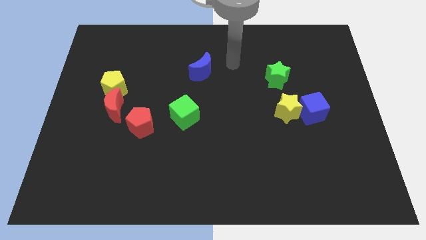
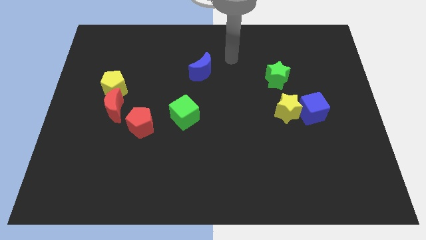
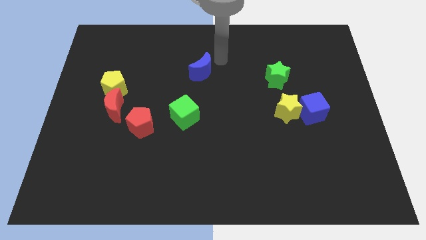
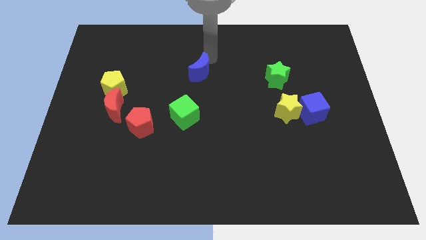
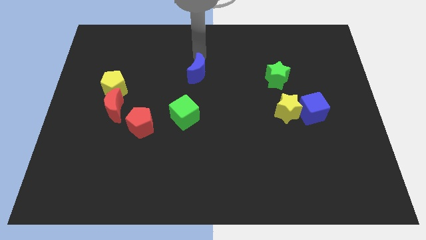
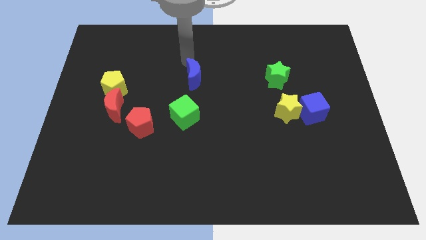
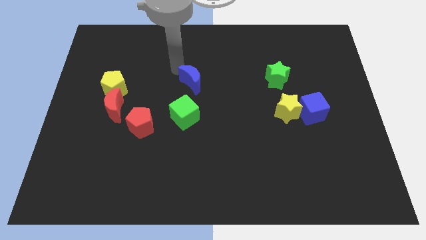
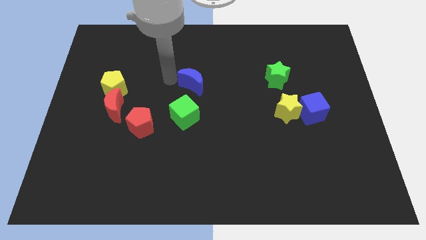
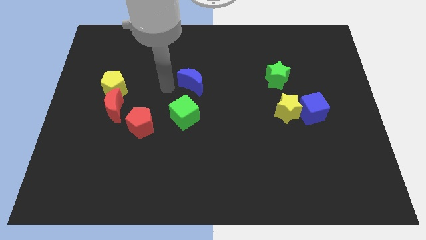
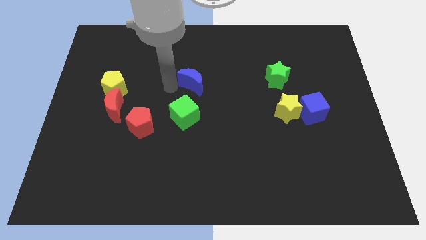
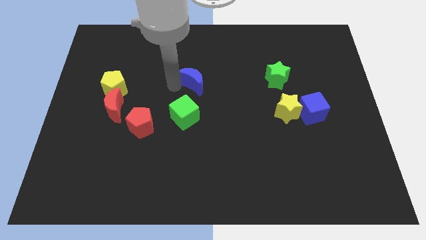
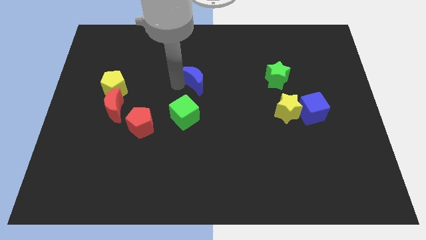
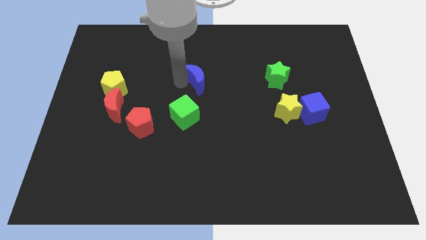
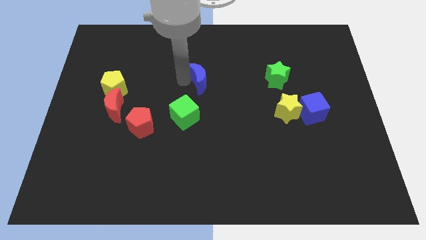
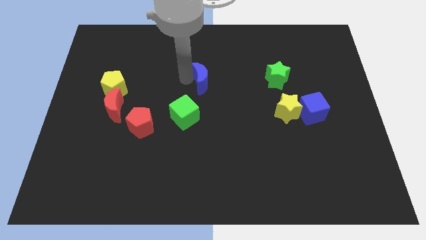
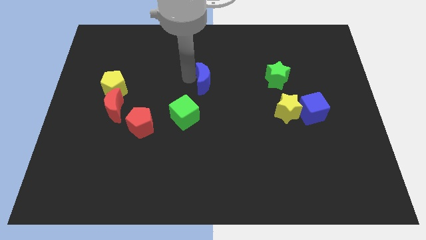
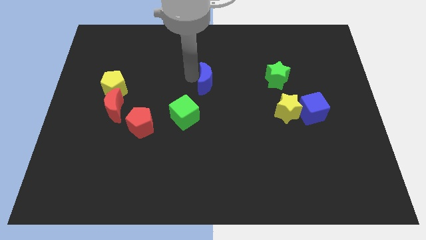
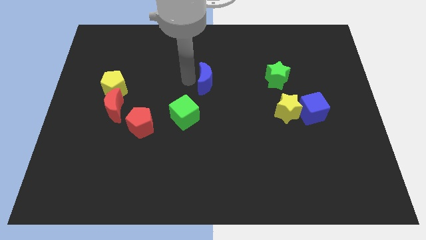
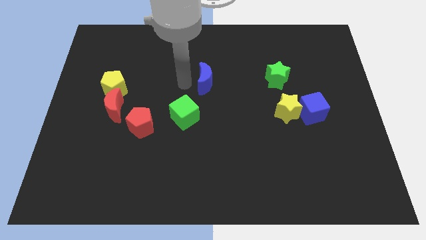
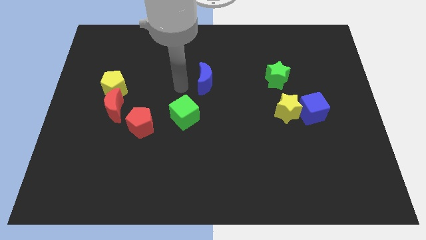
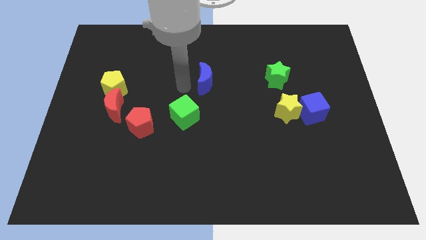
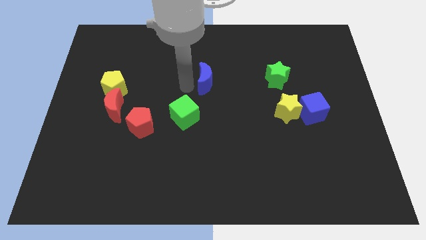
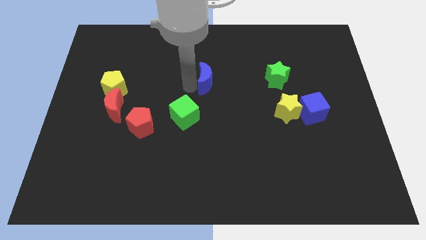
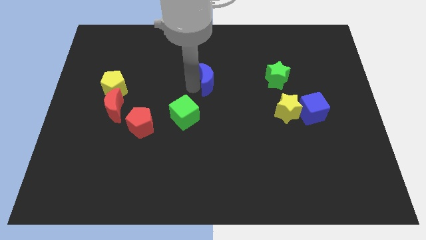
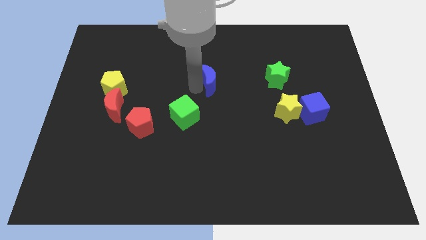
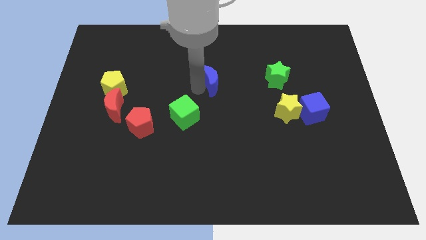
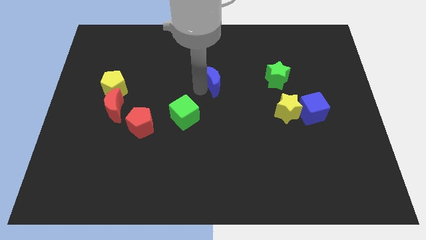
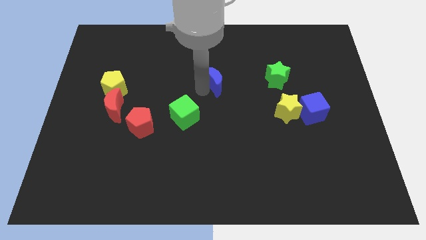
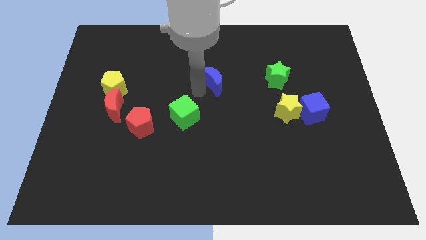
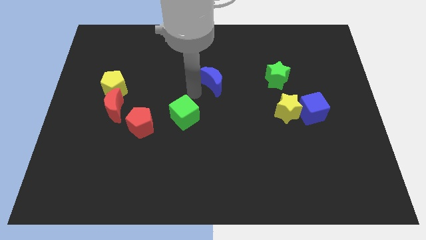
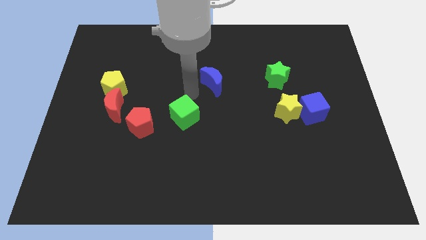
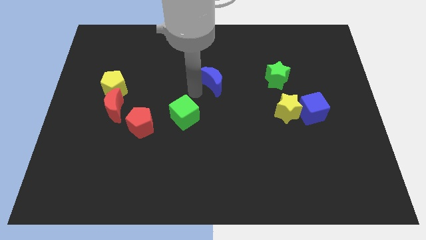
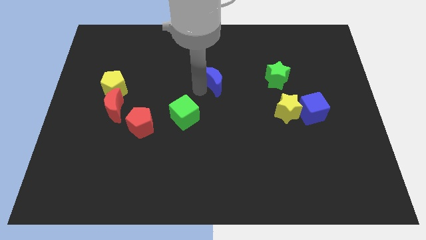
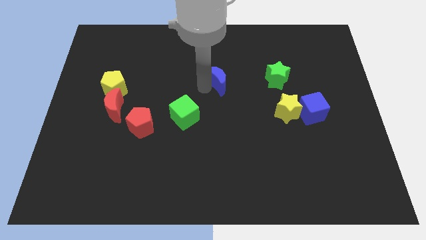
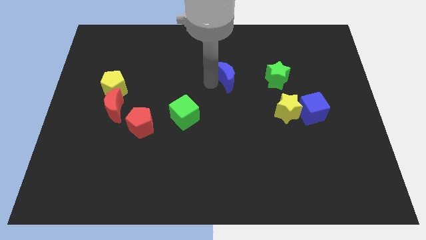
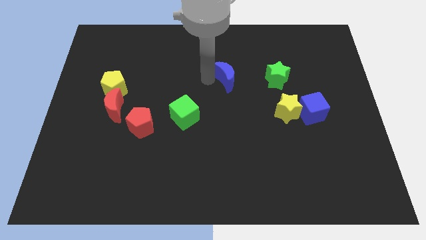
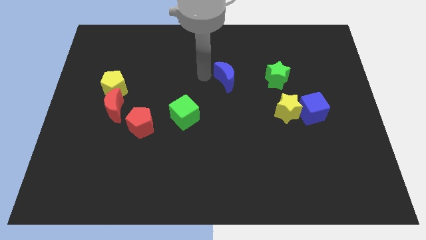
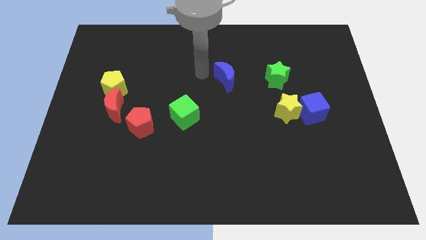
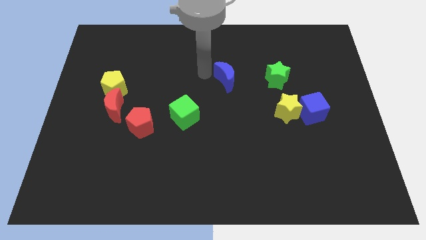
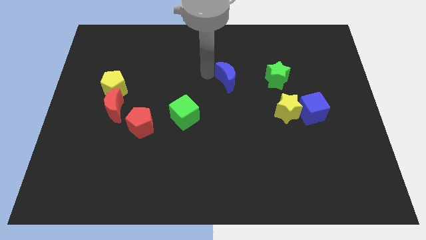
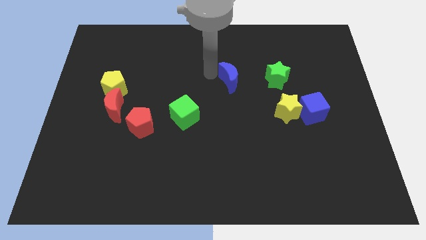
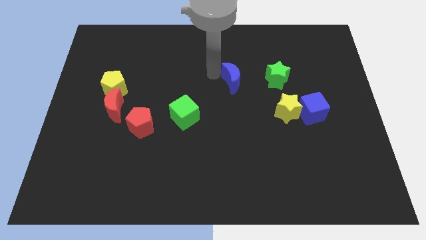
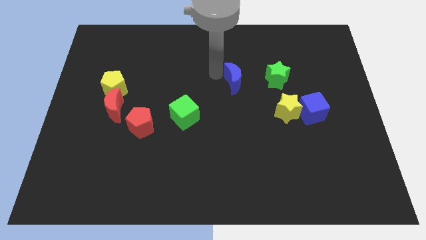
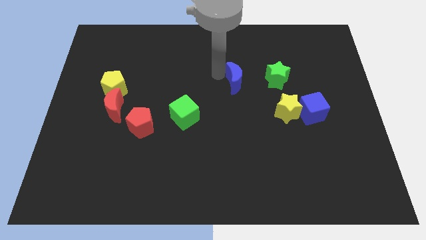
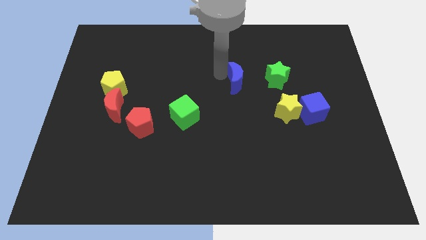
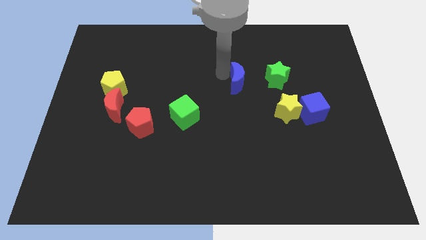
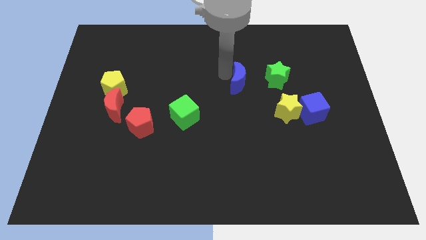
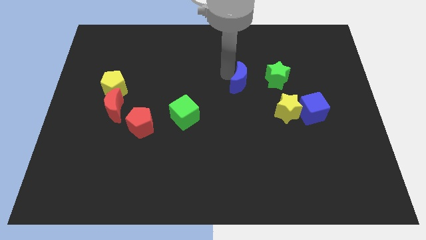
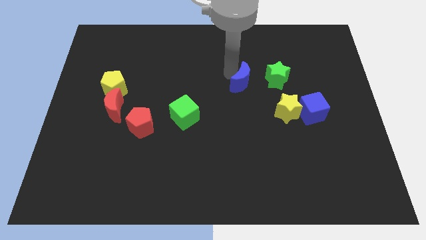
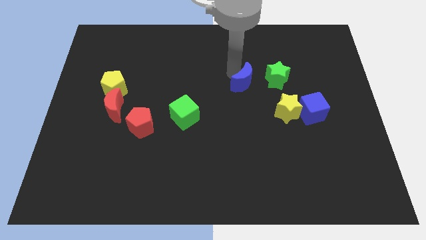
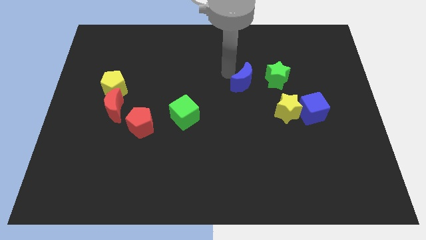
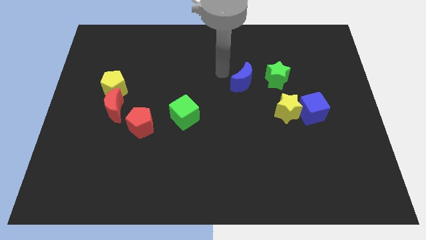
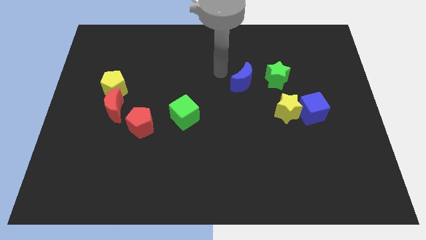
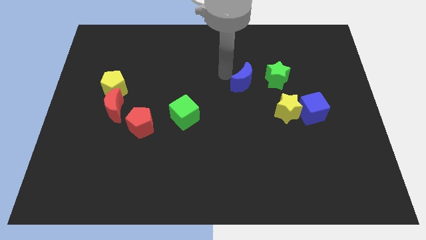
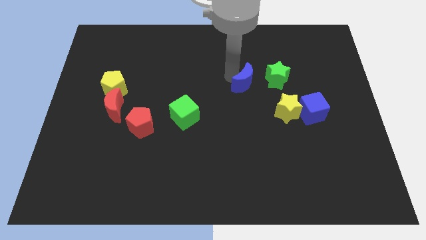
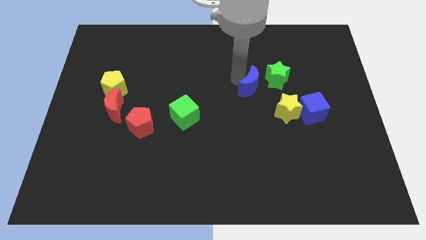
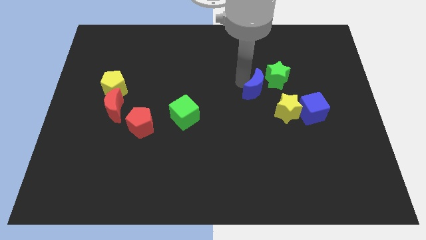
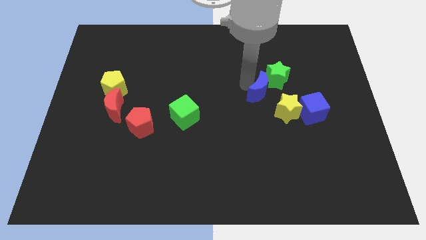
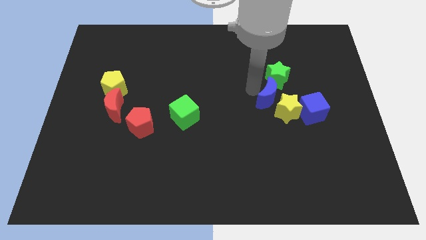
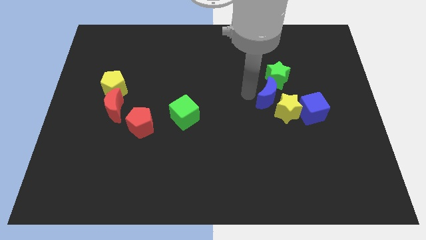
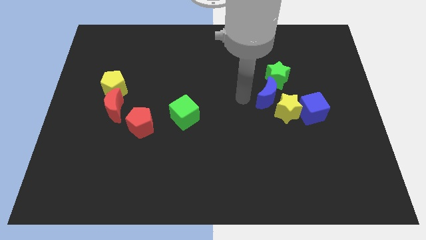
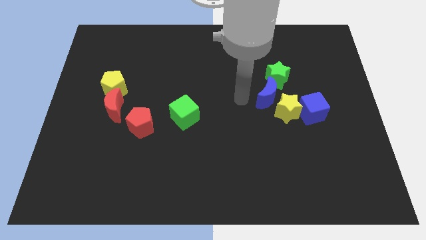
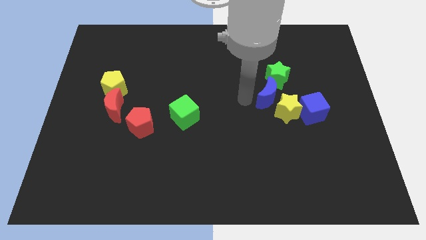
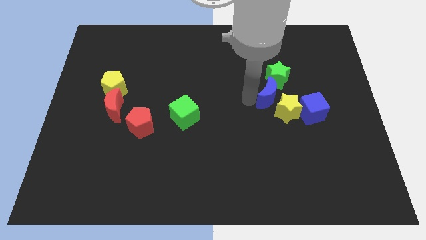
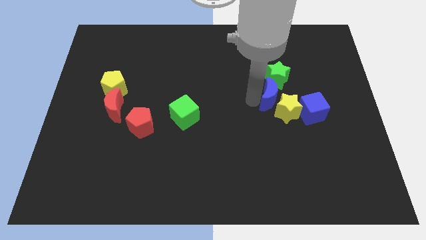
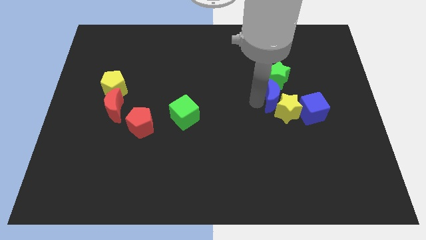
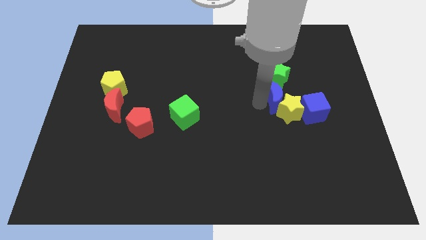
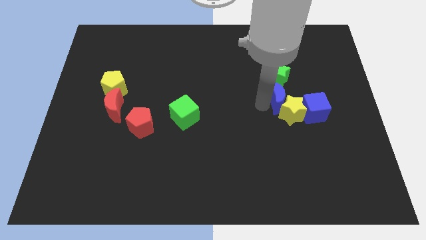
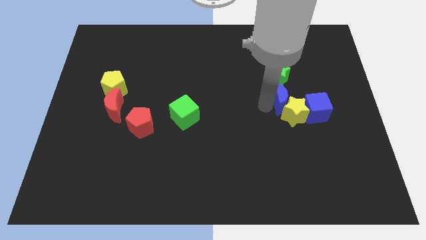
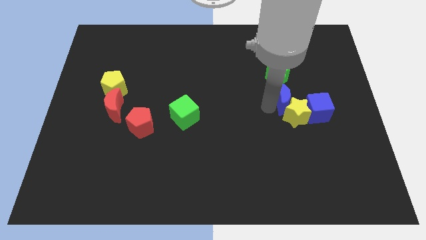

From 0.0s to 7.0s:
put the blue moon diagonally down and to the right of the green star

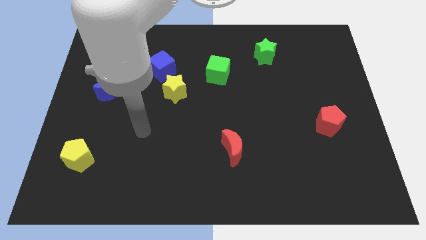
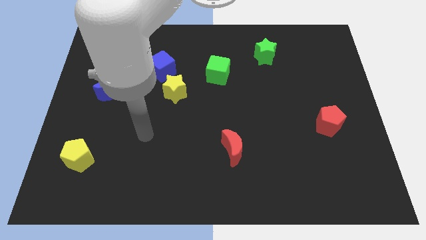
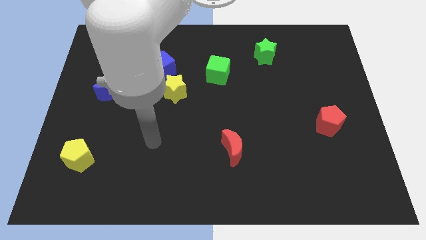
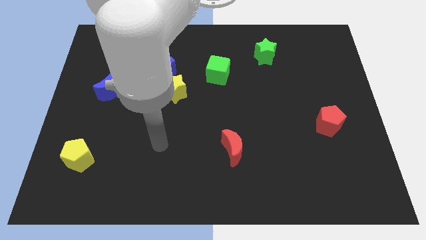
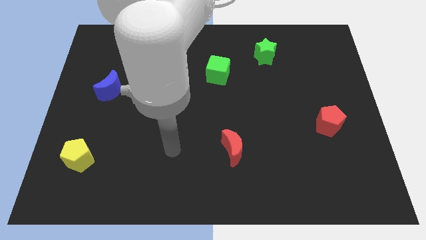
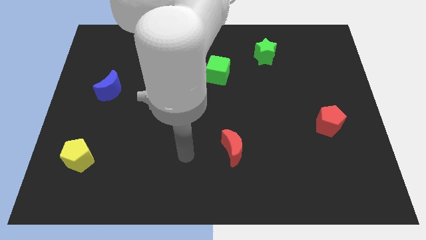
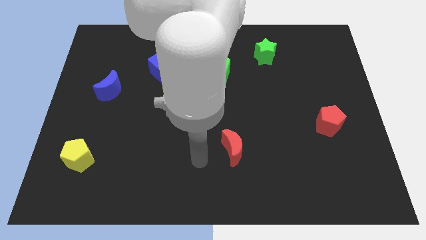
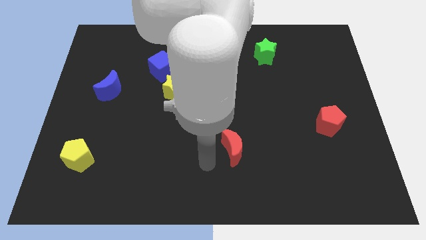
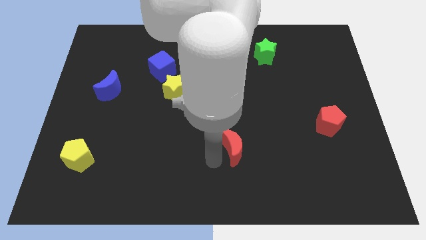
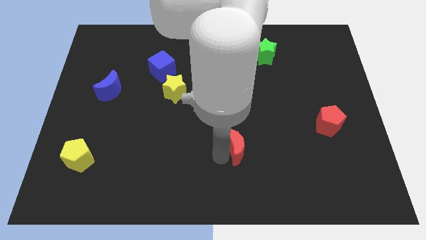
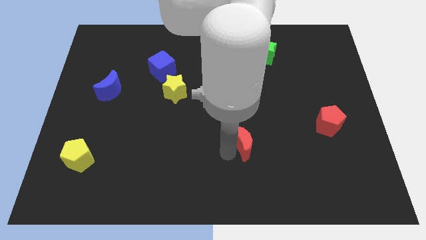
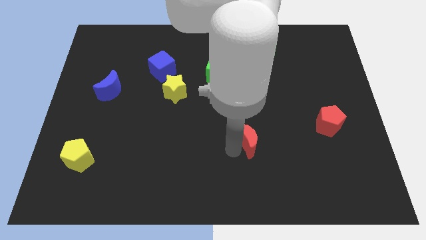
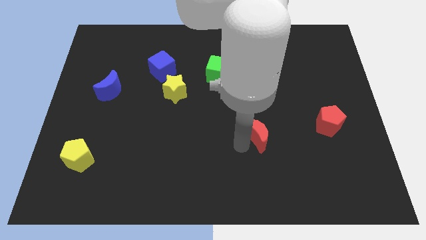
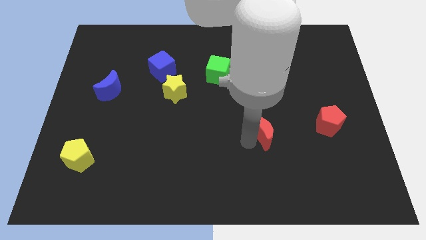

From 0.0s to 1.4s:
move the red moon left of the red pentagon

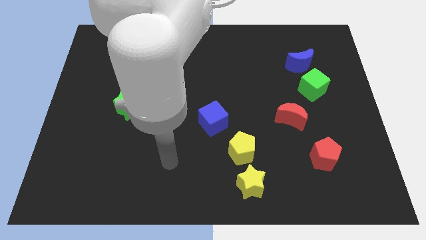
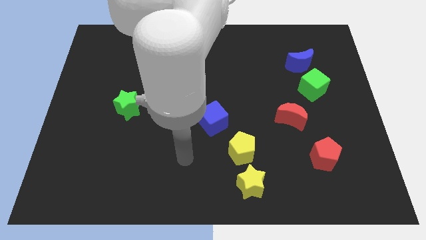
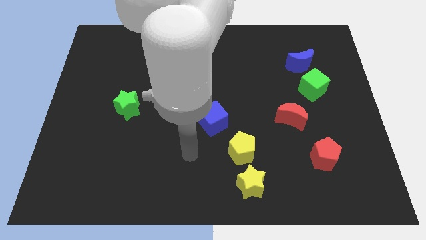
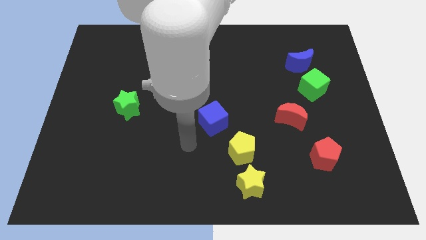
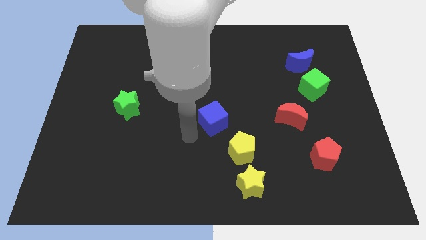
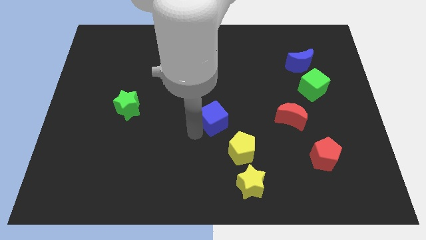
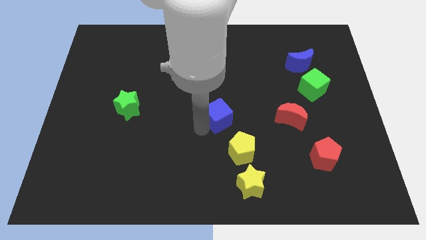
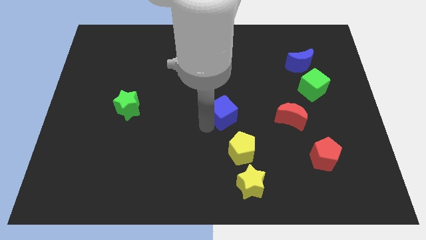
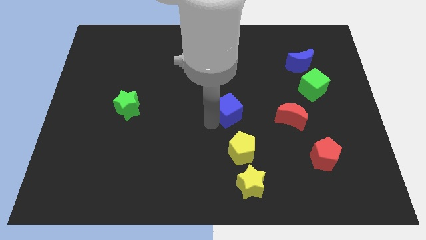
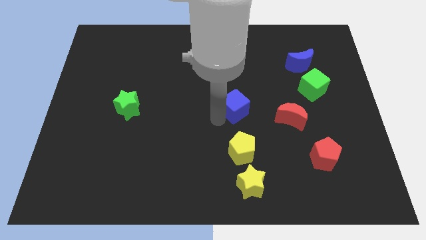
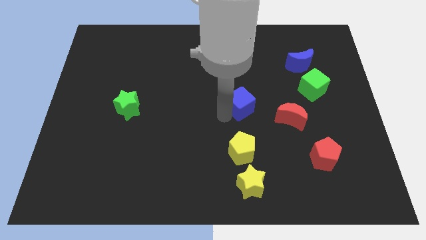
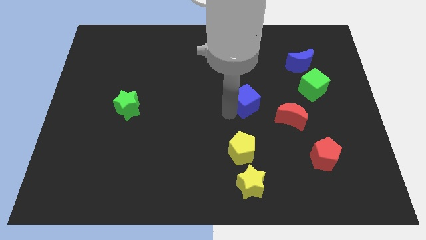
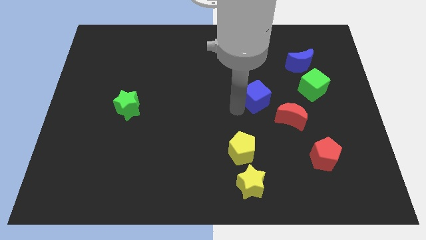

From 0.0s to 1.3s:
slide the blue cube to the left of the green cube
